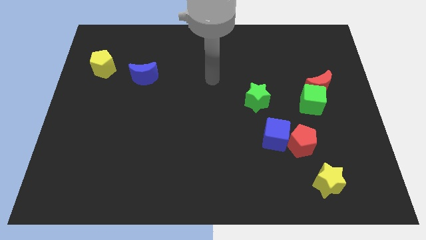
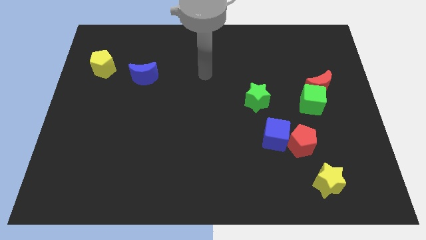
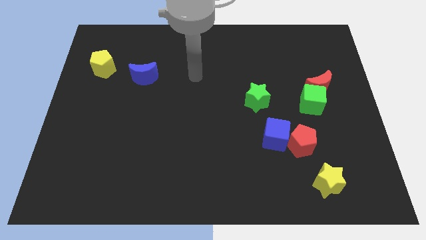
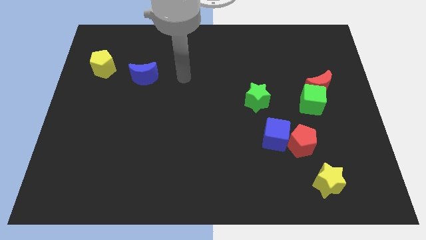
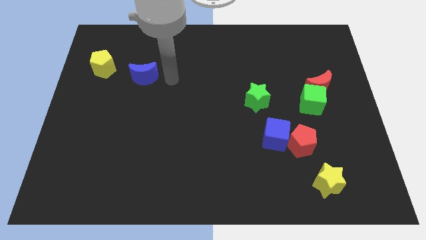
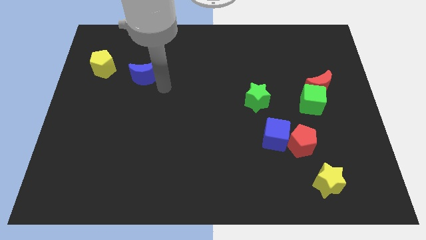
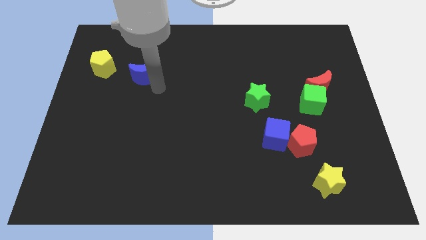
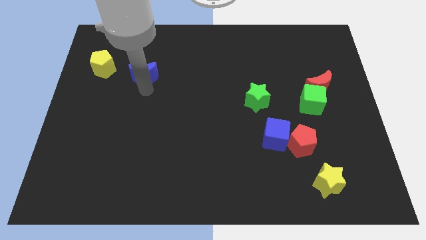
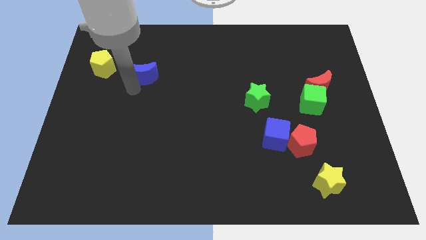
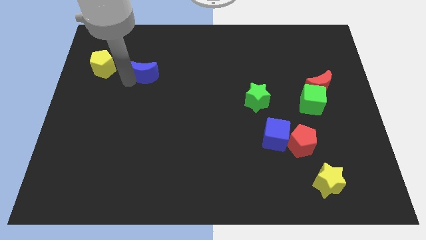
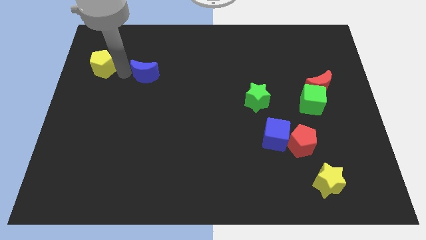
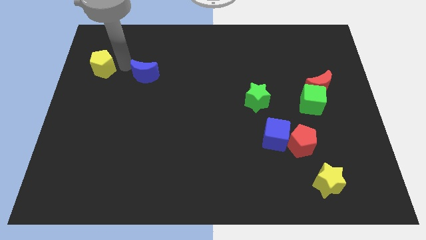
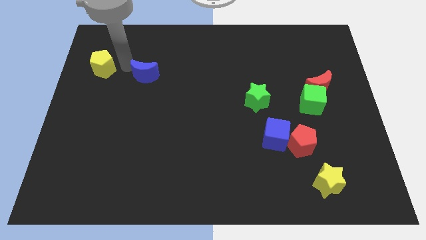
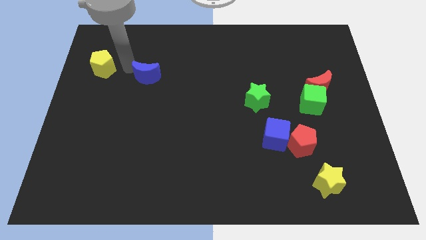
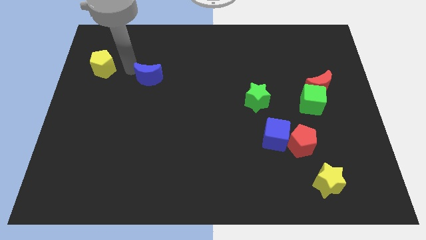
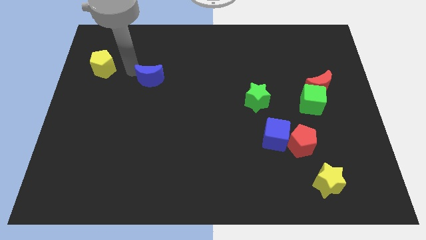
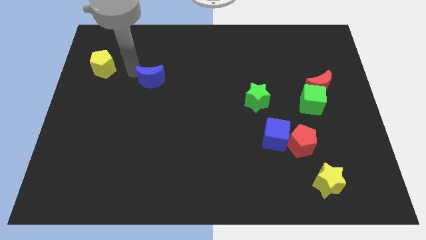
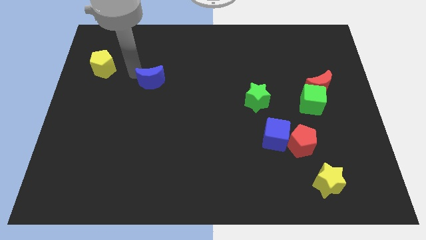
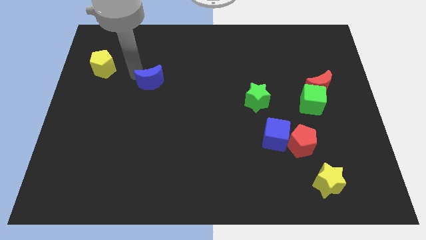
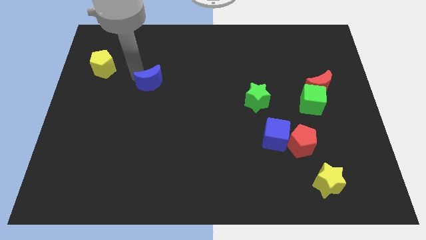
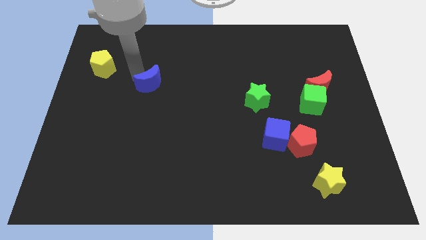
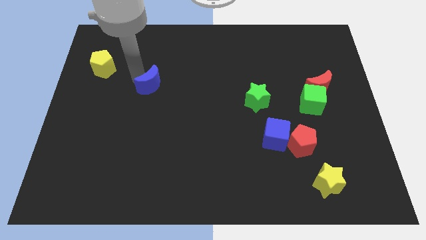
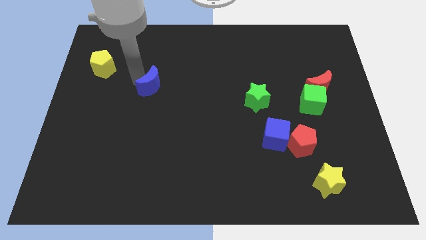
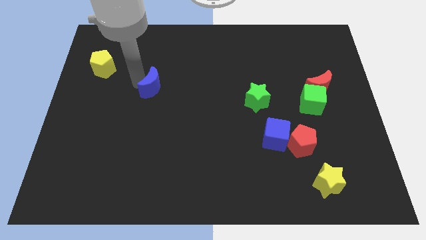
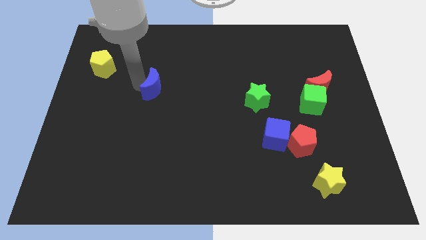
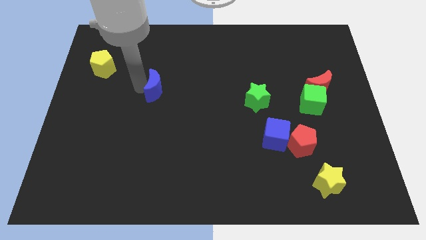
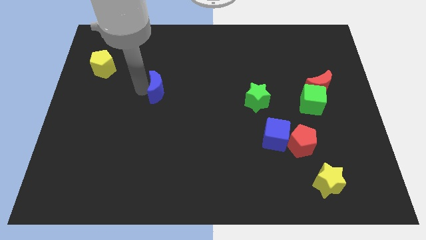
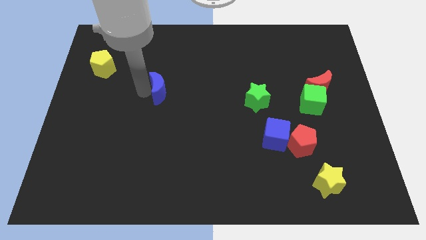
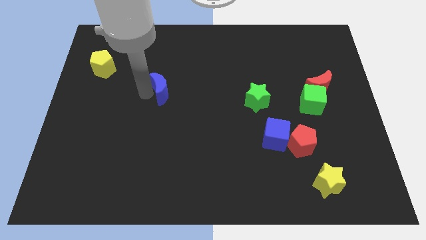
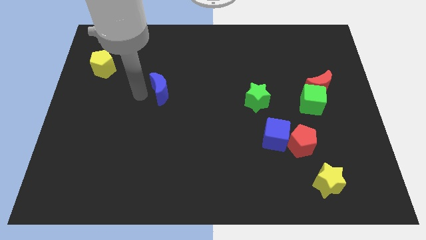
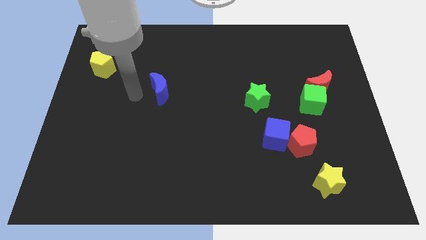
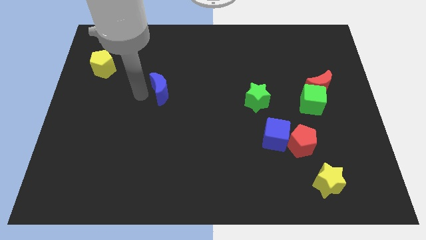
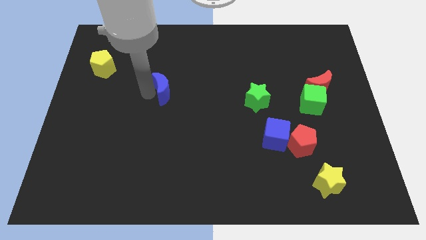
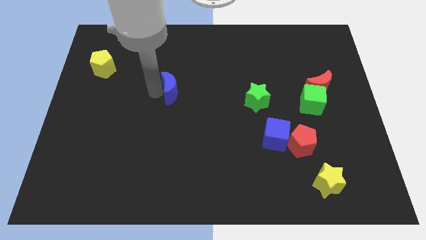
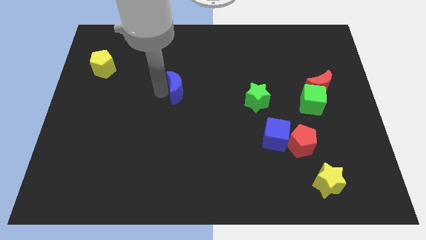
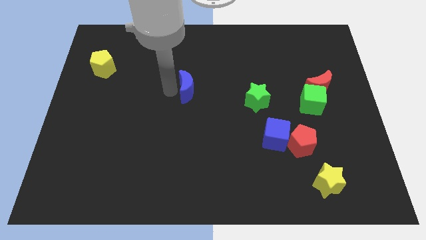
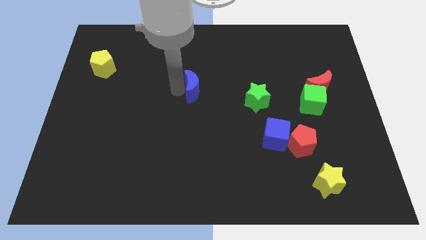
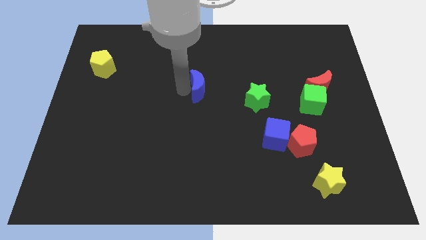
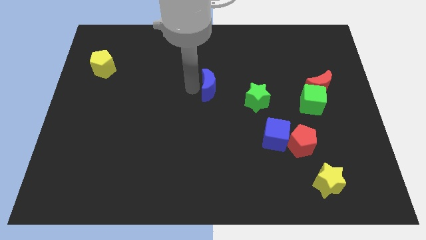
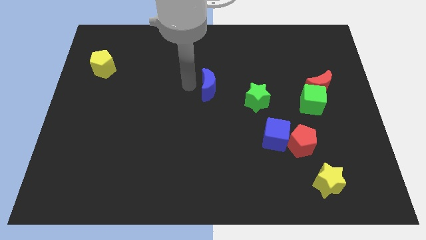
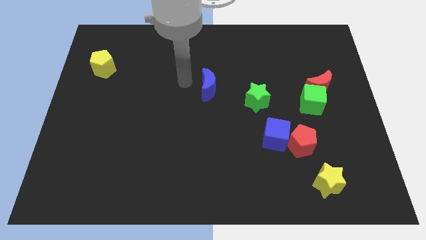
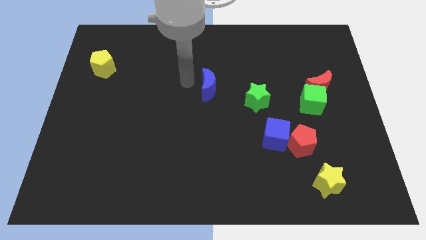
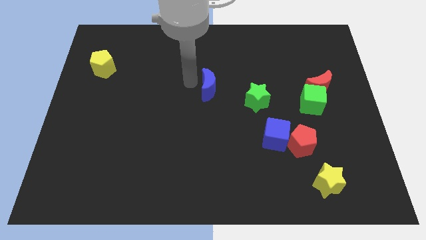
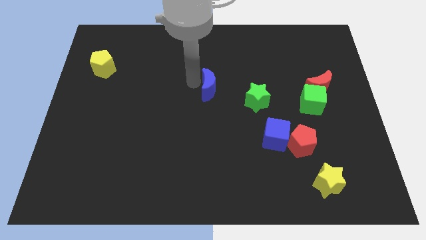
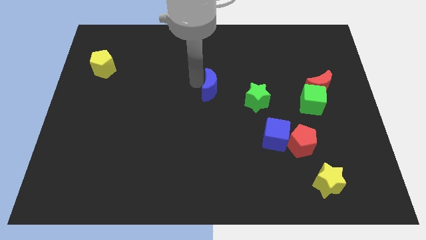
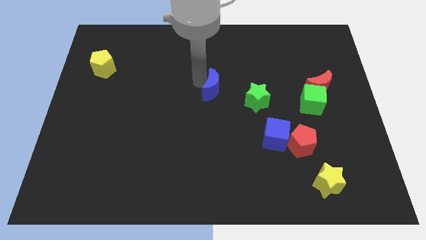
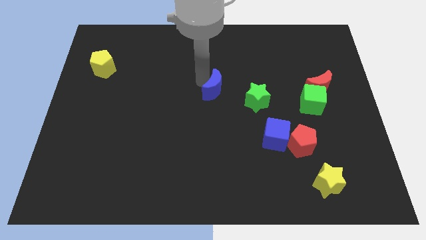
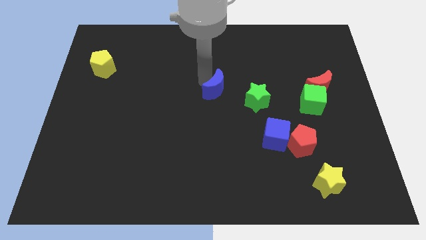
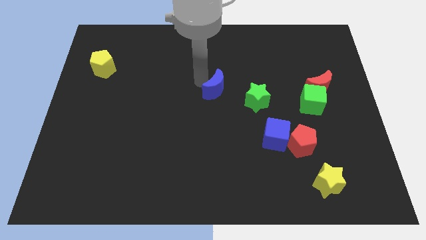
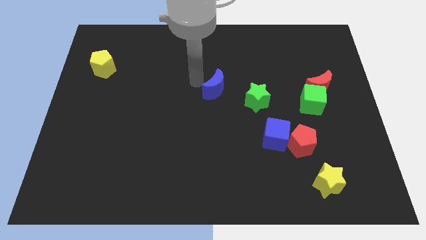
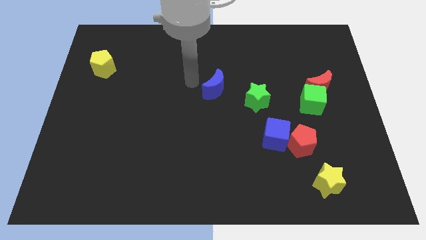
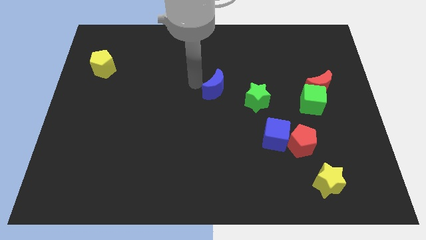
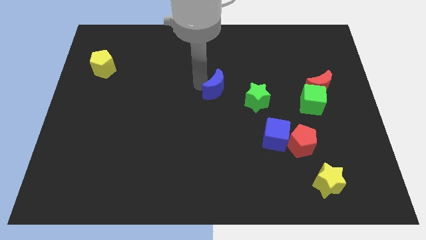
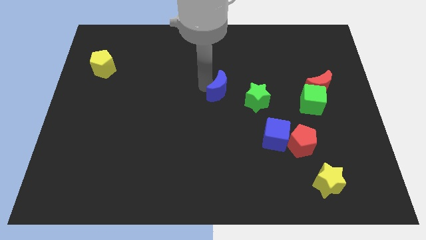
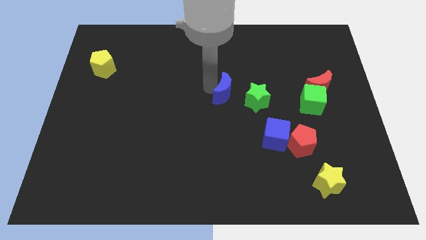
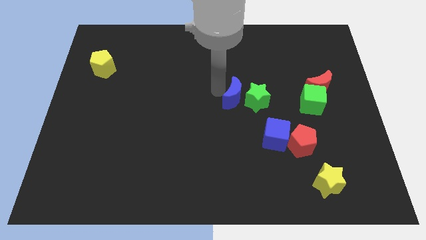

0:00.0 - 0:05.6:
push the blue moon to the green star

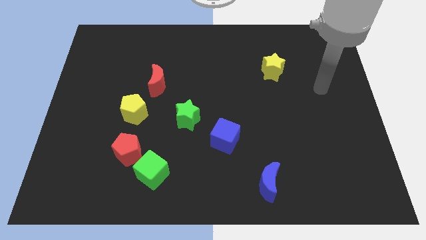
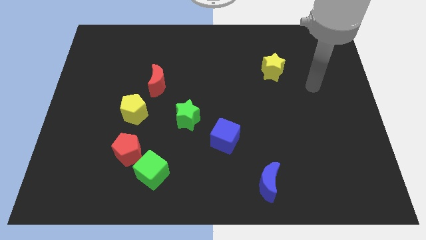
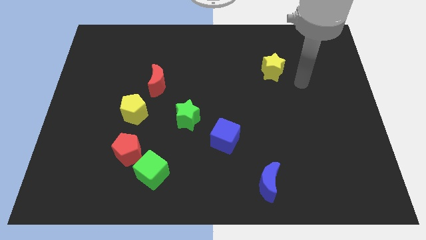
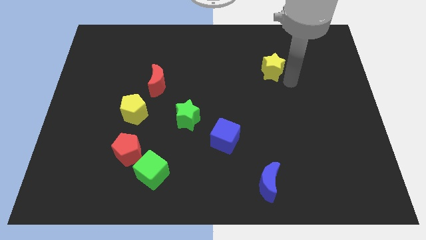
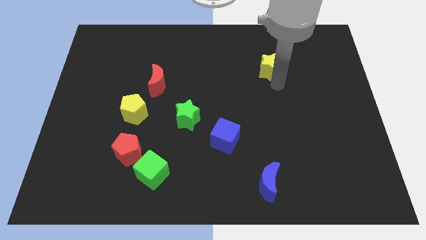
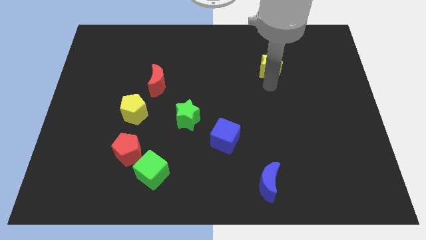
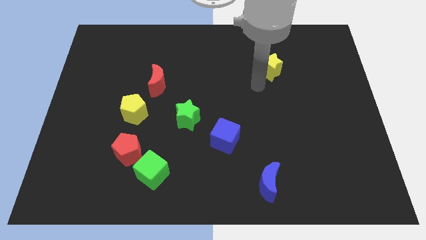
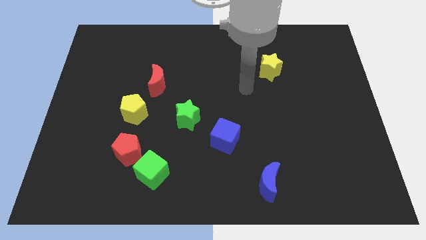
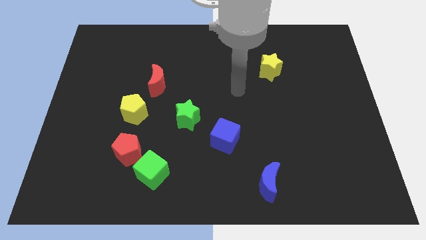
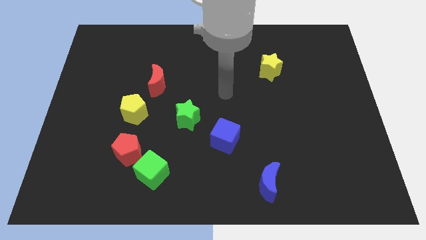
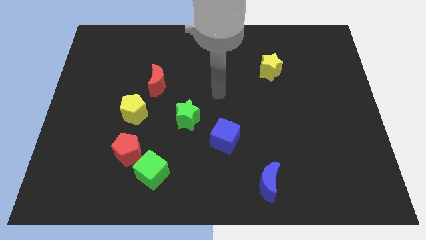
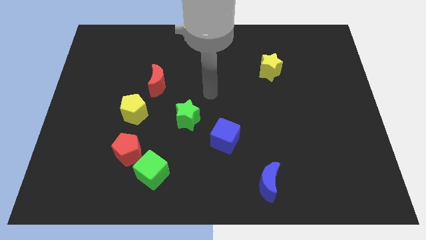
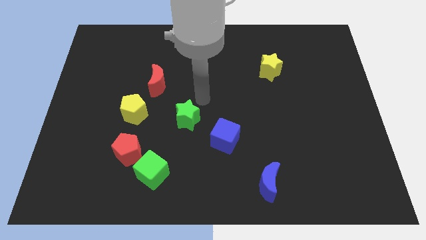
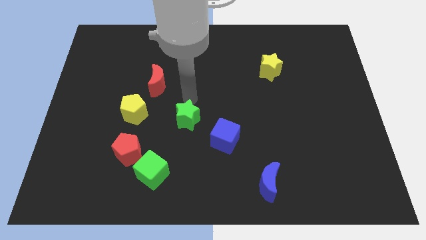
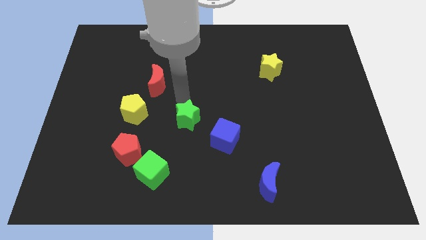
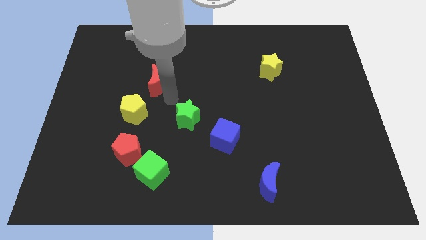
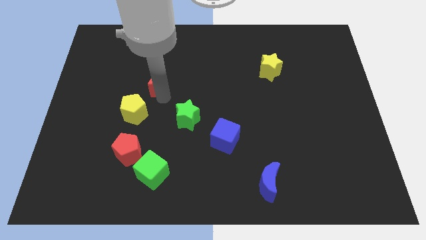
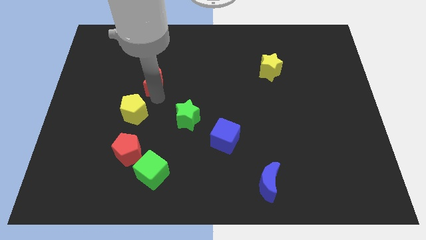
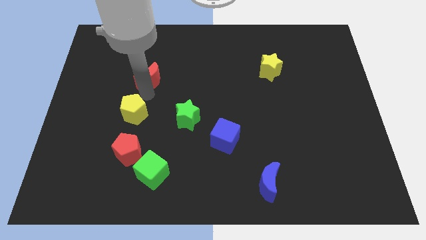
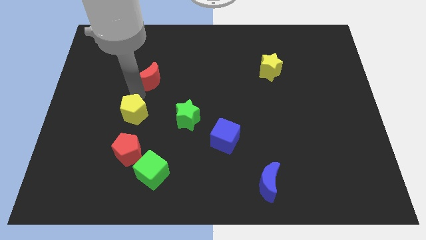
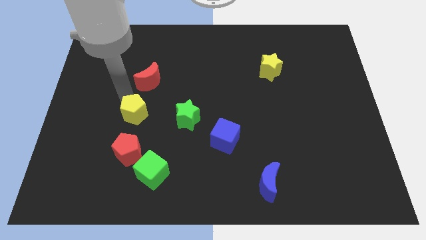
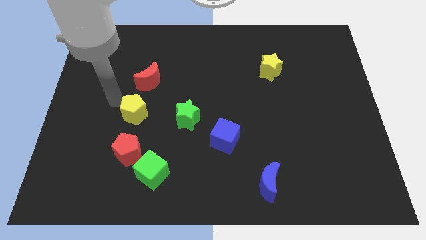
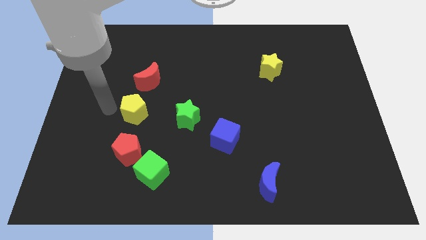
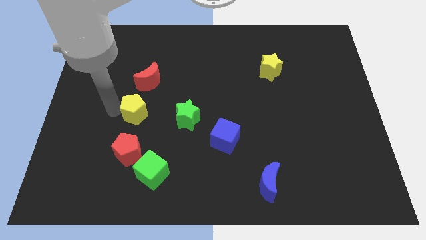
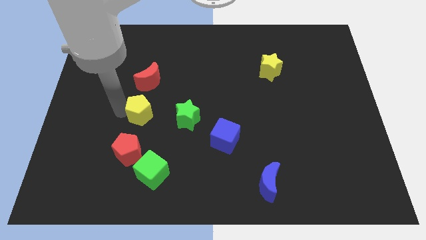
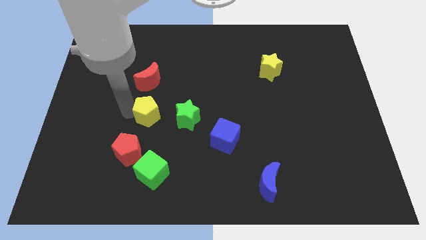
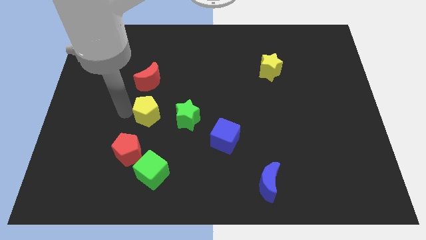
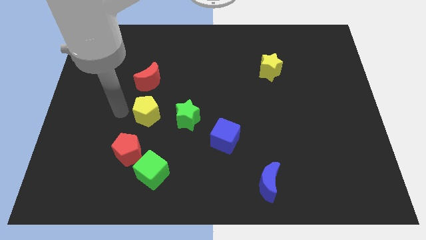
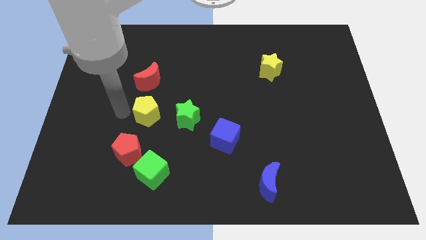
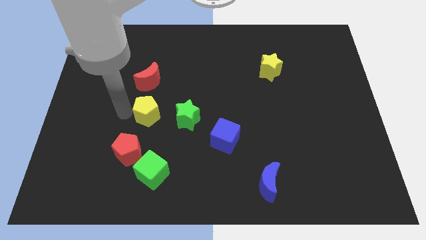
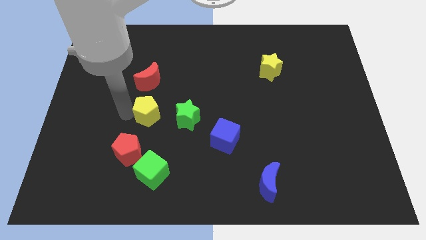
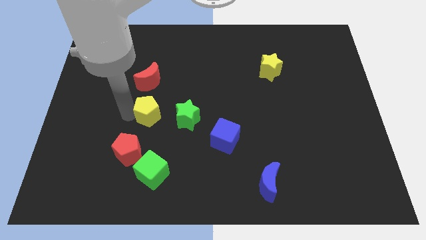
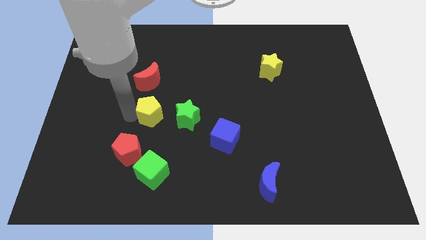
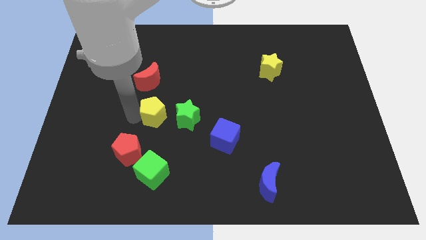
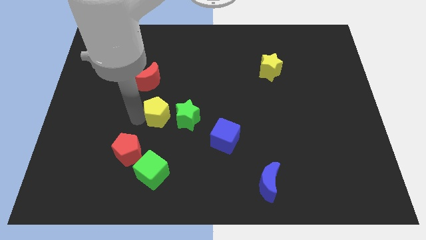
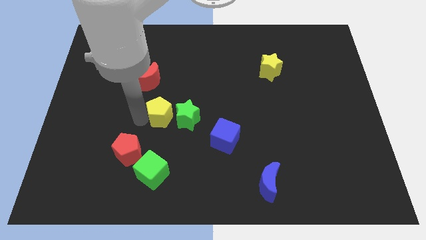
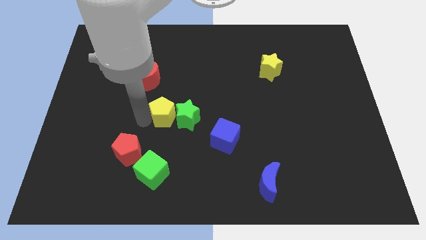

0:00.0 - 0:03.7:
move the yellow pentagon close to the green star
